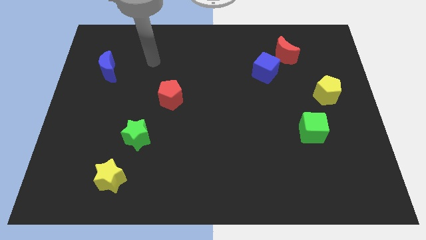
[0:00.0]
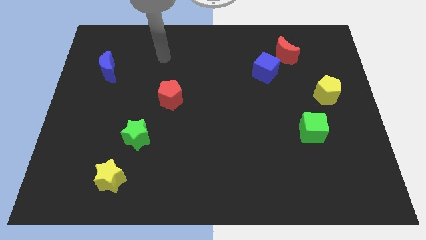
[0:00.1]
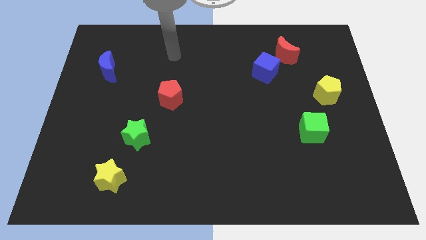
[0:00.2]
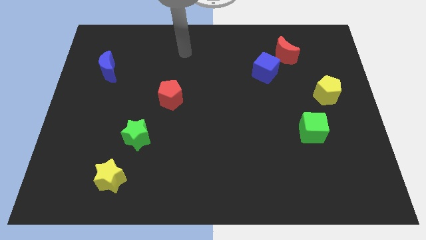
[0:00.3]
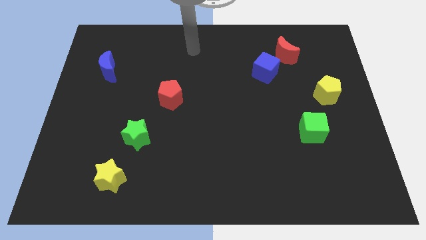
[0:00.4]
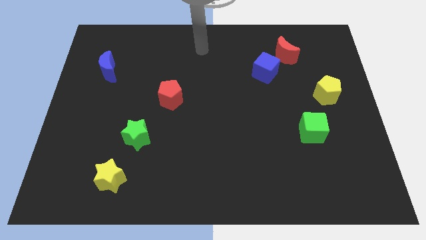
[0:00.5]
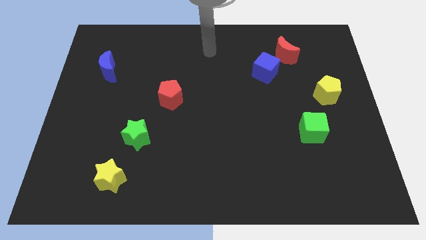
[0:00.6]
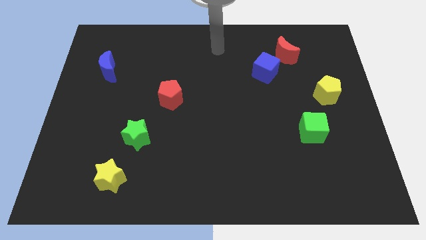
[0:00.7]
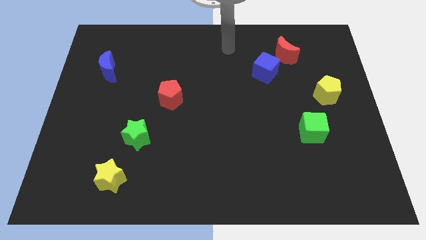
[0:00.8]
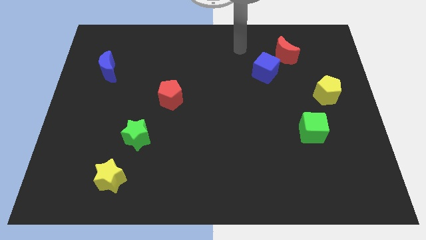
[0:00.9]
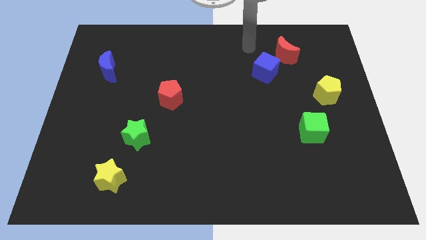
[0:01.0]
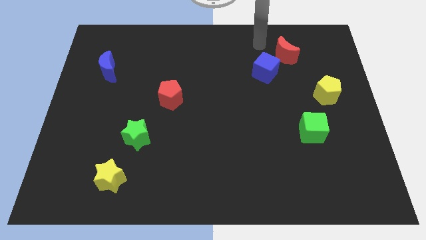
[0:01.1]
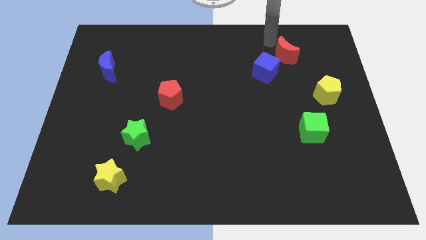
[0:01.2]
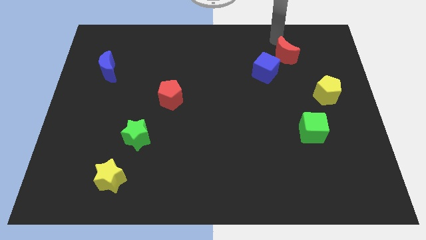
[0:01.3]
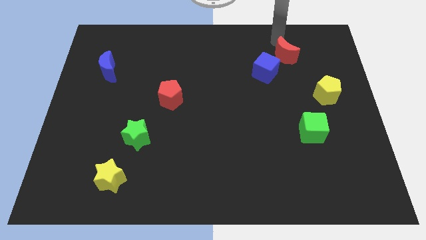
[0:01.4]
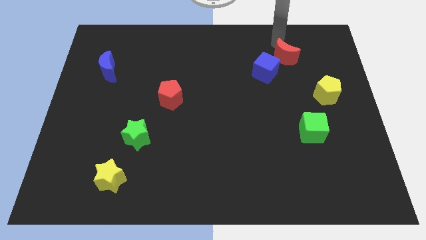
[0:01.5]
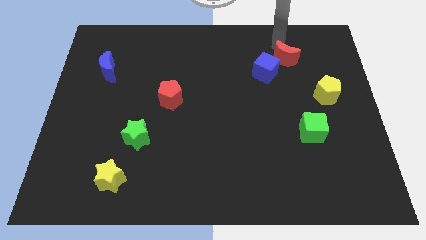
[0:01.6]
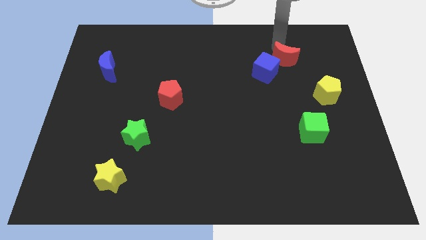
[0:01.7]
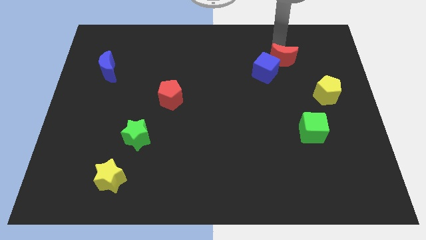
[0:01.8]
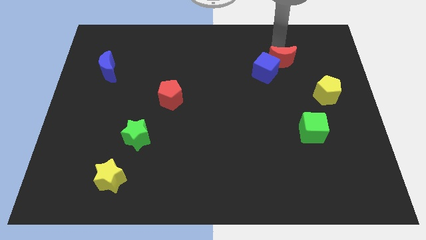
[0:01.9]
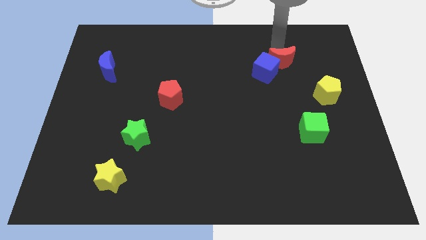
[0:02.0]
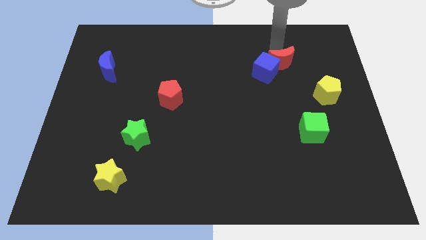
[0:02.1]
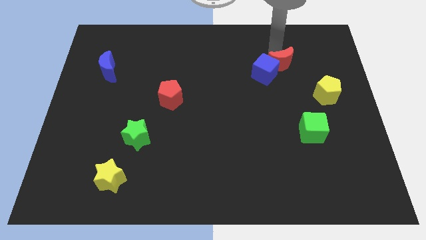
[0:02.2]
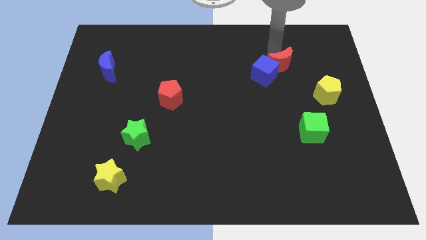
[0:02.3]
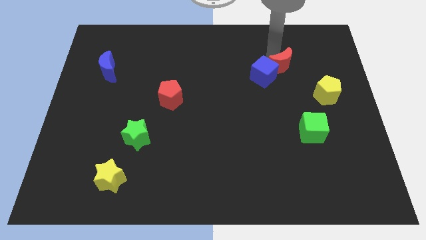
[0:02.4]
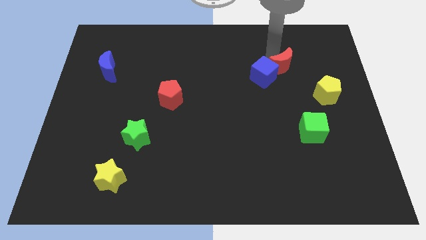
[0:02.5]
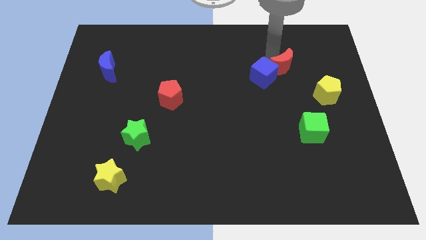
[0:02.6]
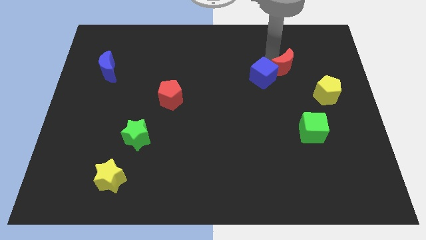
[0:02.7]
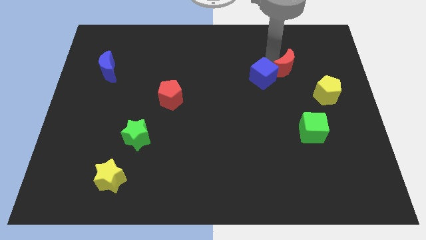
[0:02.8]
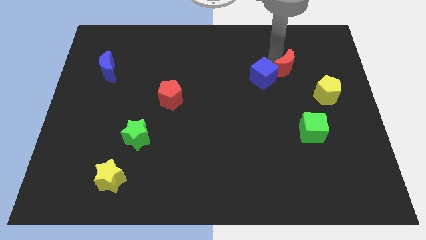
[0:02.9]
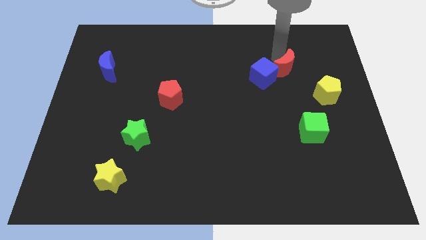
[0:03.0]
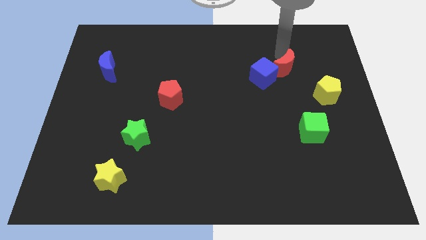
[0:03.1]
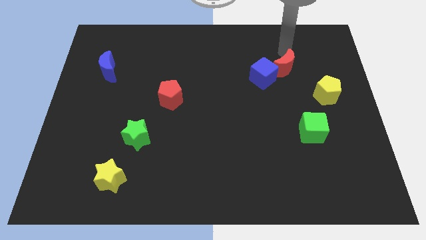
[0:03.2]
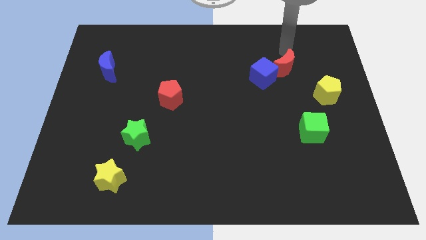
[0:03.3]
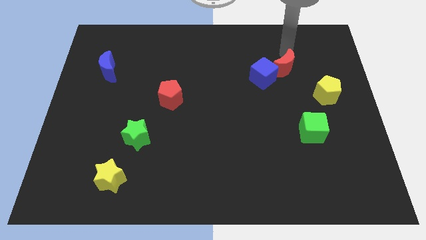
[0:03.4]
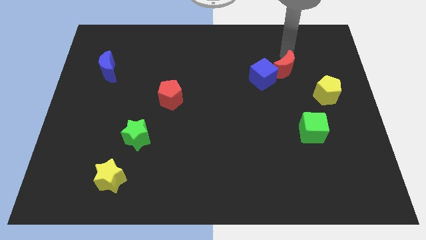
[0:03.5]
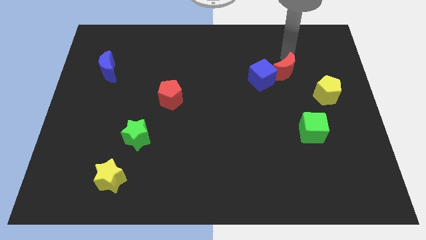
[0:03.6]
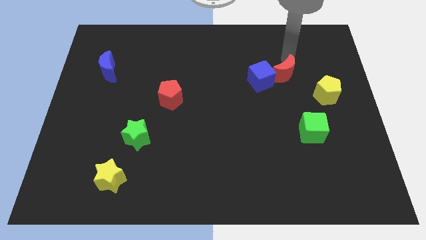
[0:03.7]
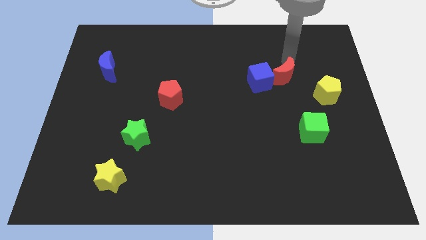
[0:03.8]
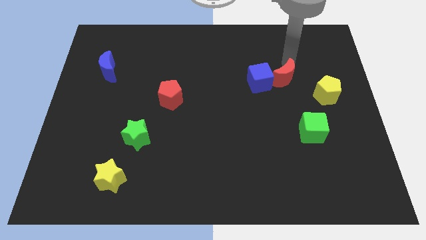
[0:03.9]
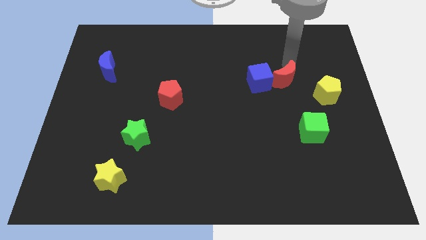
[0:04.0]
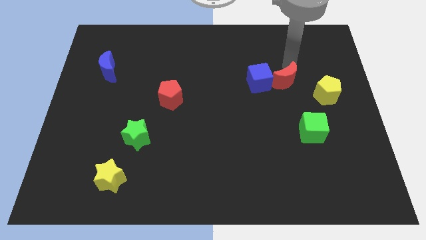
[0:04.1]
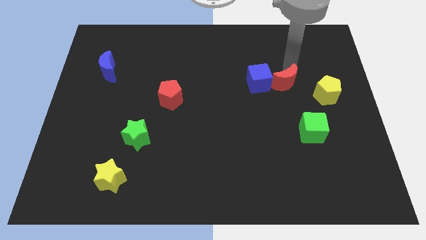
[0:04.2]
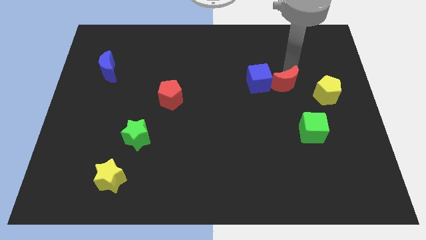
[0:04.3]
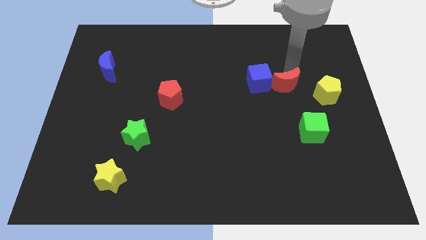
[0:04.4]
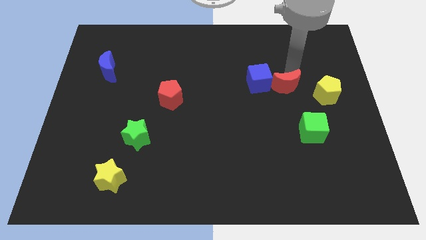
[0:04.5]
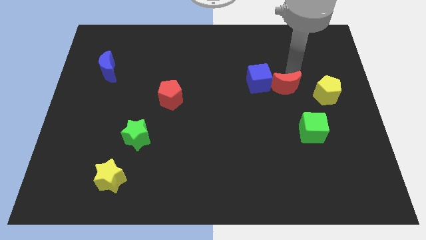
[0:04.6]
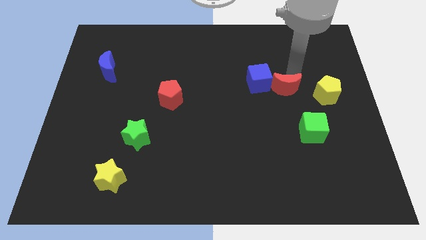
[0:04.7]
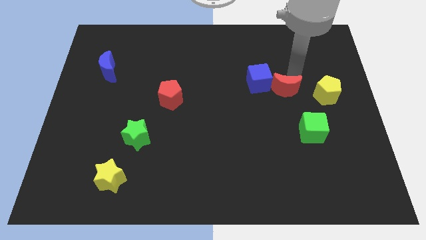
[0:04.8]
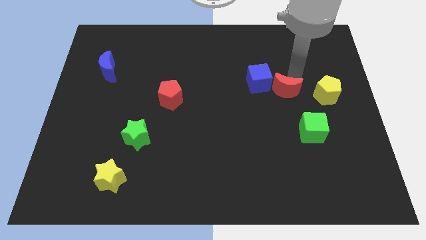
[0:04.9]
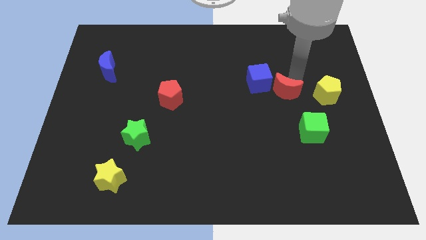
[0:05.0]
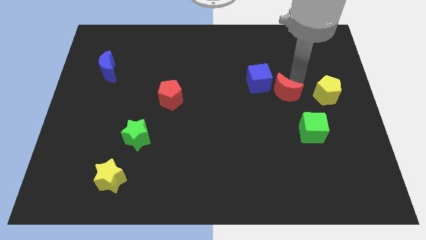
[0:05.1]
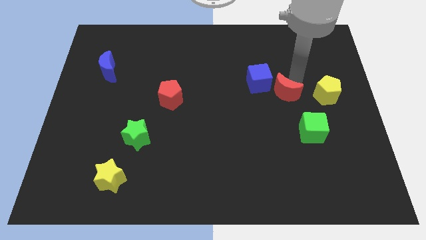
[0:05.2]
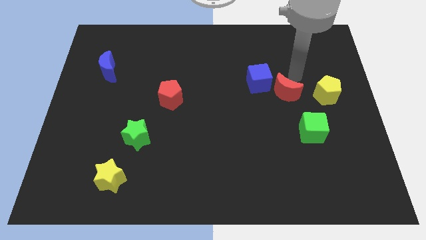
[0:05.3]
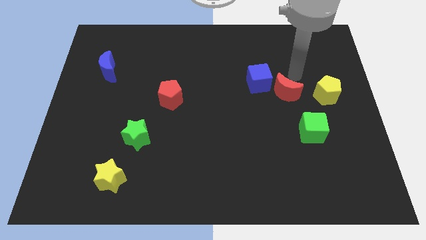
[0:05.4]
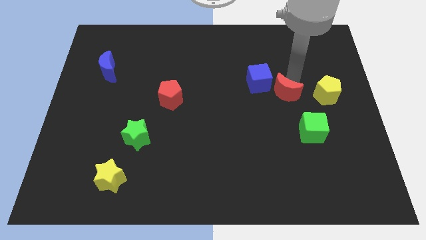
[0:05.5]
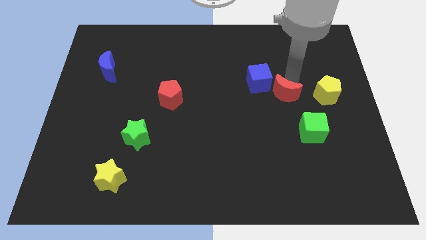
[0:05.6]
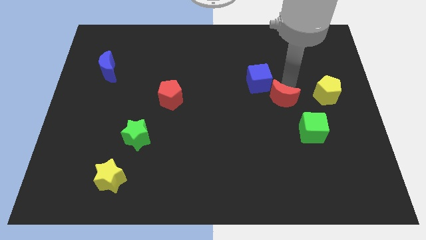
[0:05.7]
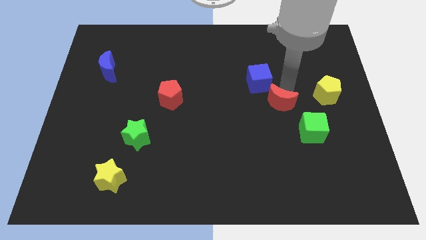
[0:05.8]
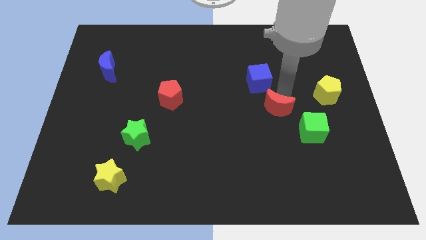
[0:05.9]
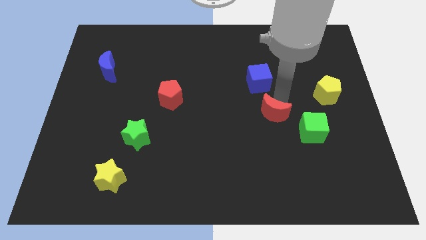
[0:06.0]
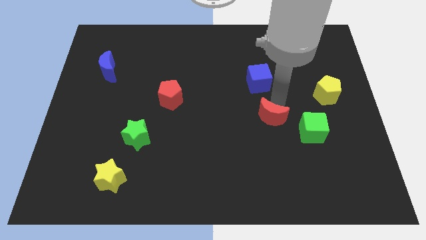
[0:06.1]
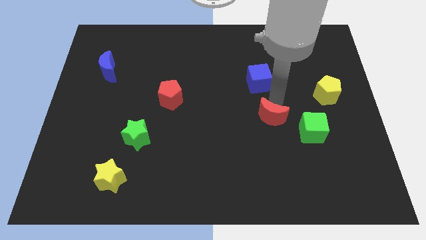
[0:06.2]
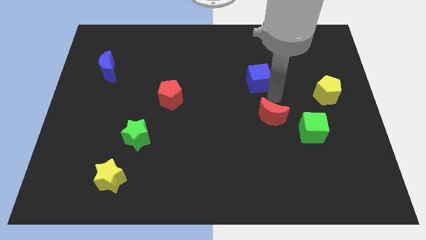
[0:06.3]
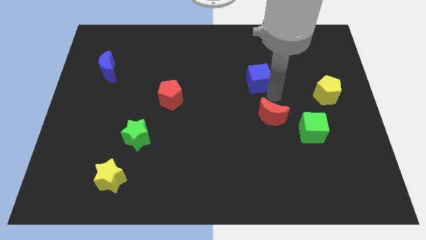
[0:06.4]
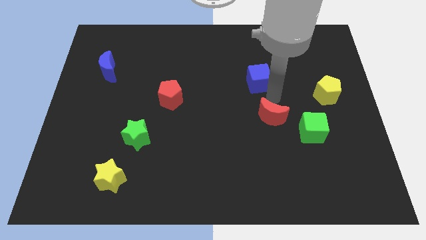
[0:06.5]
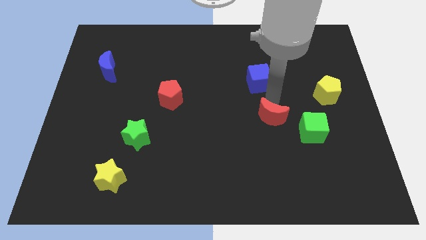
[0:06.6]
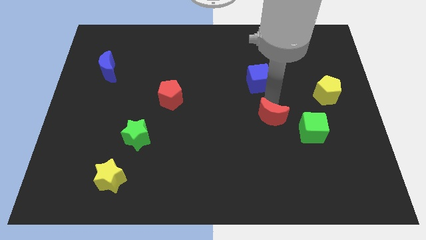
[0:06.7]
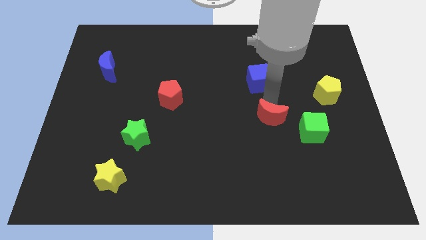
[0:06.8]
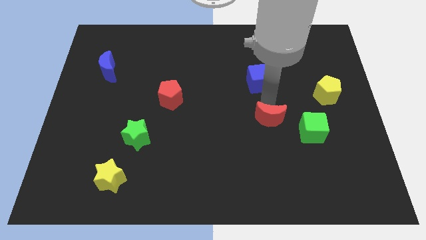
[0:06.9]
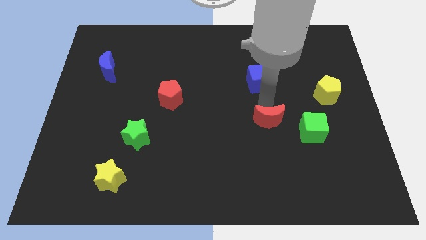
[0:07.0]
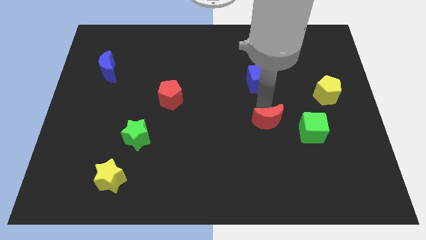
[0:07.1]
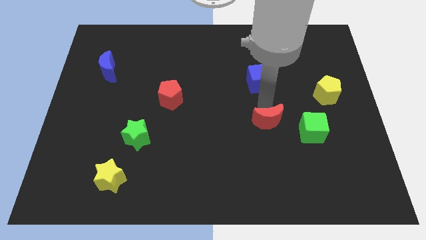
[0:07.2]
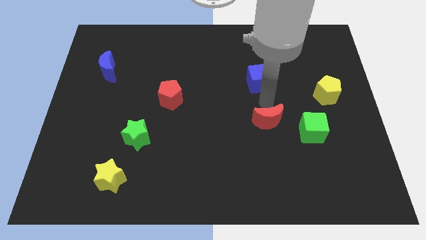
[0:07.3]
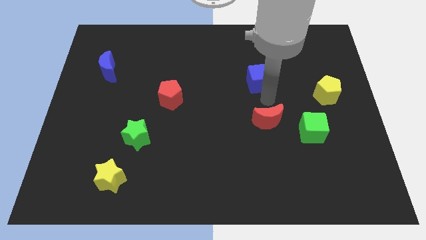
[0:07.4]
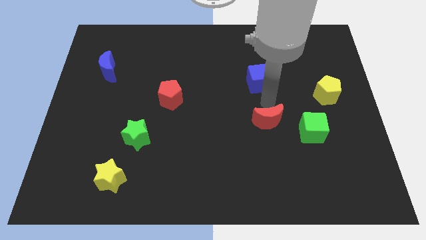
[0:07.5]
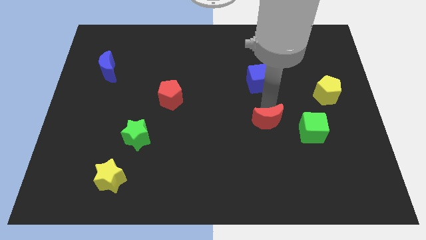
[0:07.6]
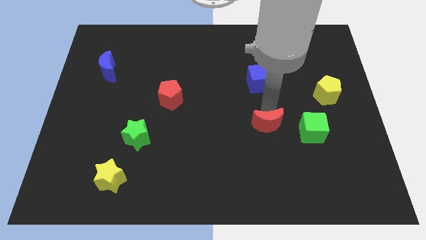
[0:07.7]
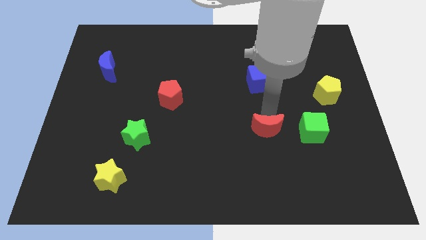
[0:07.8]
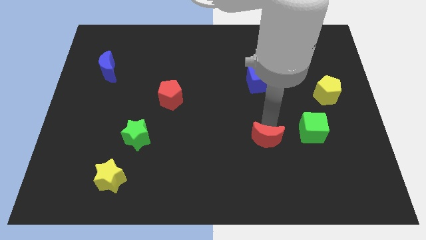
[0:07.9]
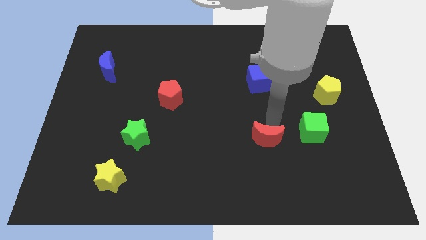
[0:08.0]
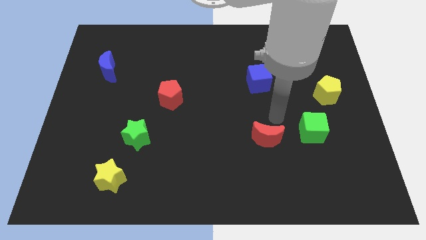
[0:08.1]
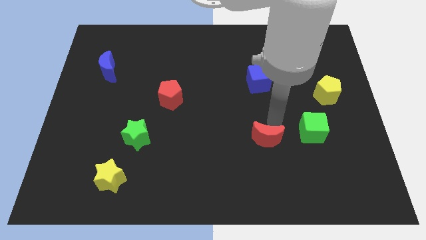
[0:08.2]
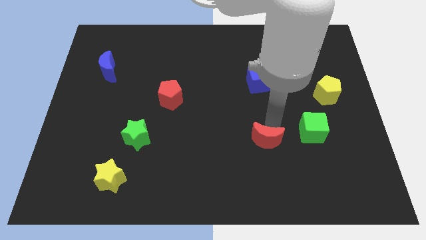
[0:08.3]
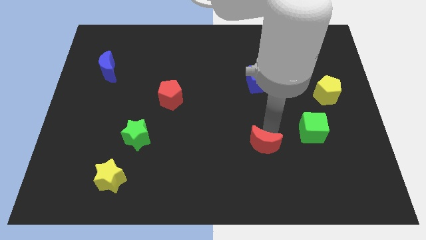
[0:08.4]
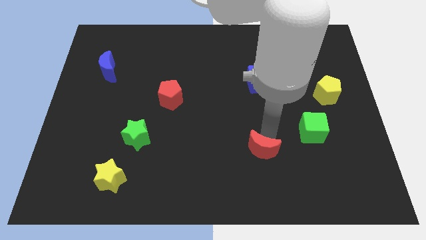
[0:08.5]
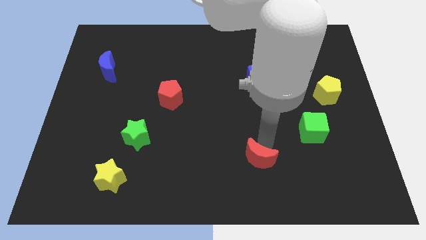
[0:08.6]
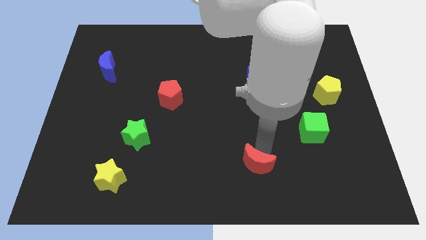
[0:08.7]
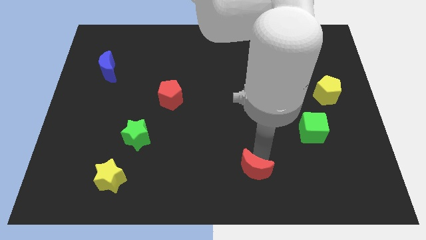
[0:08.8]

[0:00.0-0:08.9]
move the red moon to the bottom side
